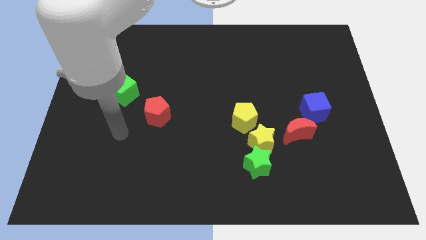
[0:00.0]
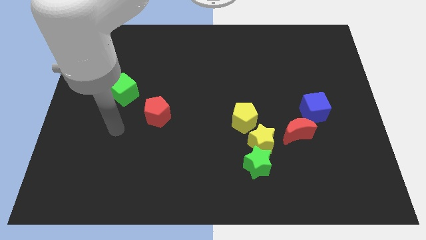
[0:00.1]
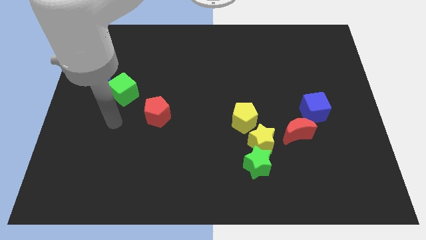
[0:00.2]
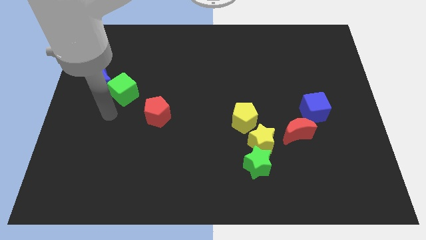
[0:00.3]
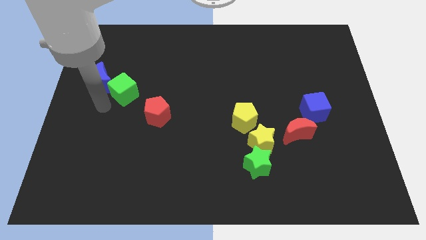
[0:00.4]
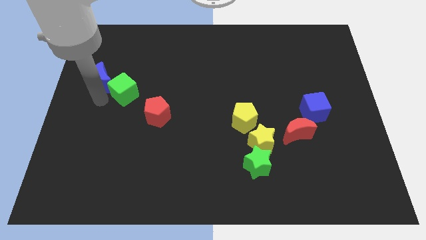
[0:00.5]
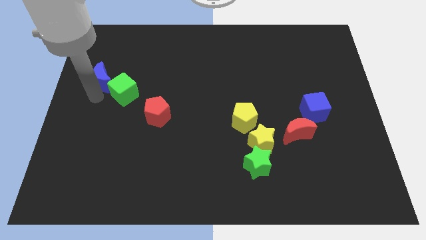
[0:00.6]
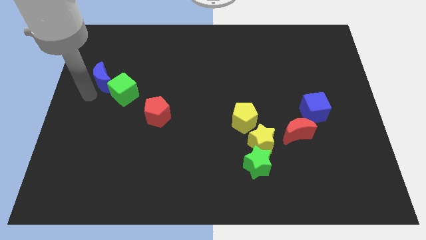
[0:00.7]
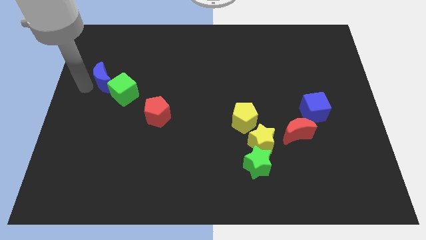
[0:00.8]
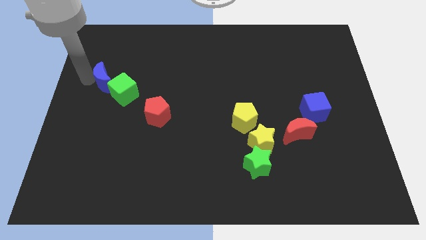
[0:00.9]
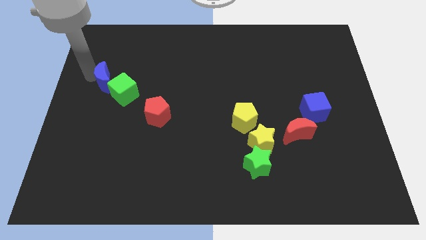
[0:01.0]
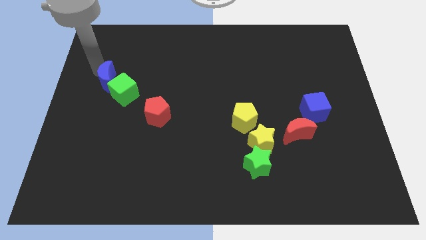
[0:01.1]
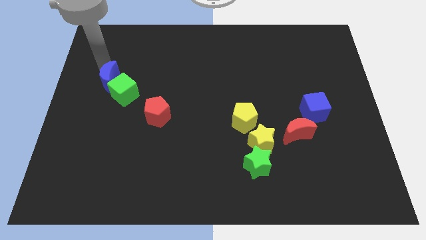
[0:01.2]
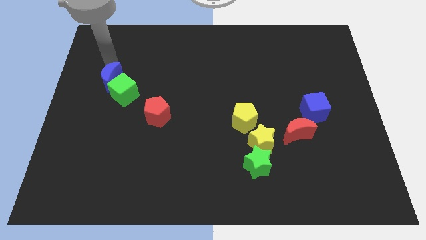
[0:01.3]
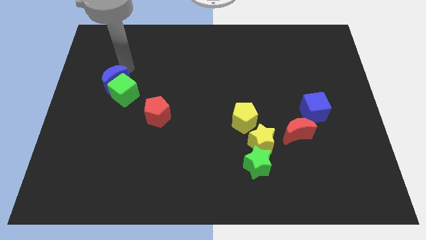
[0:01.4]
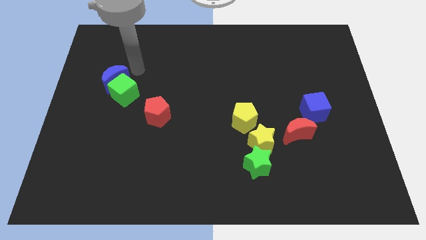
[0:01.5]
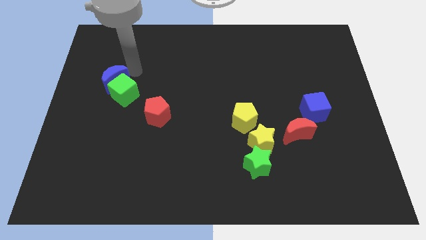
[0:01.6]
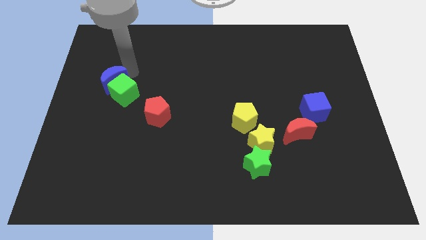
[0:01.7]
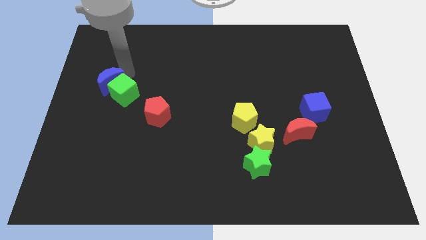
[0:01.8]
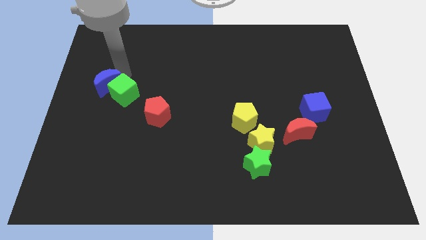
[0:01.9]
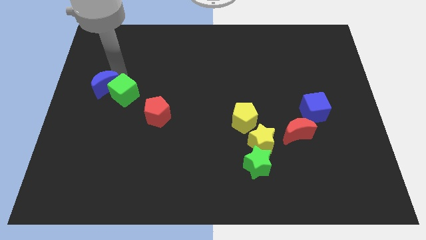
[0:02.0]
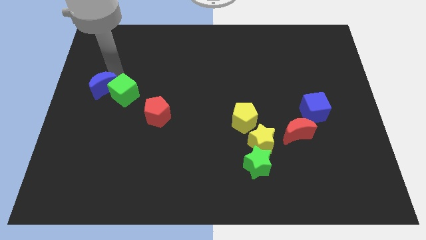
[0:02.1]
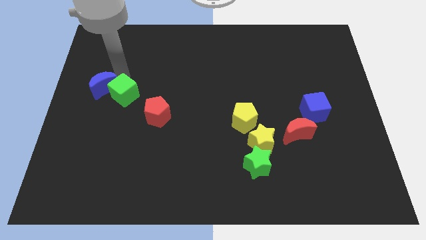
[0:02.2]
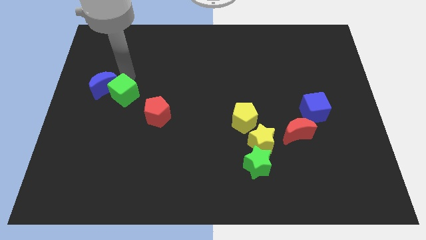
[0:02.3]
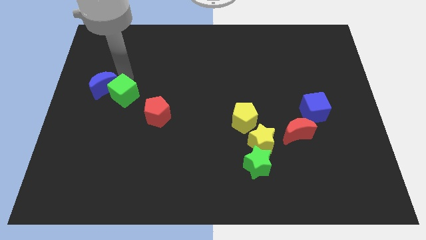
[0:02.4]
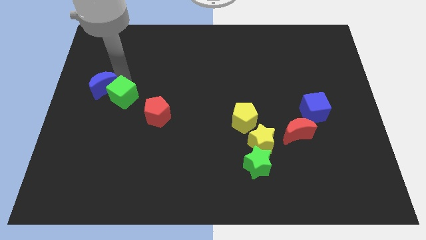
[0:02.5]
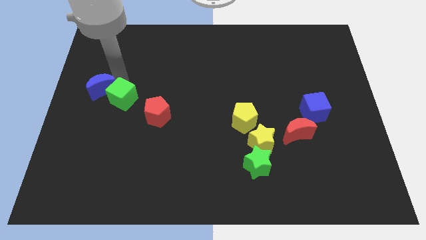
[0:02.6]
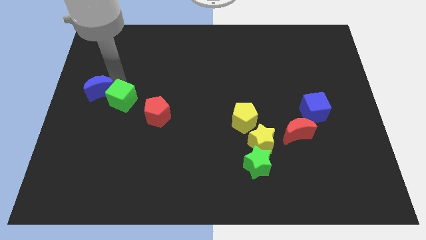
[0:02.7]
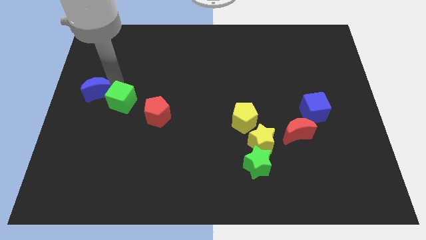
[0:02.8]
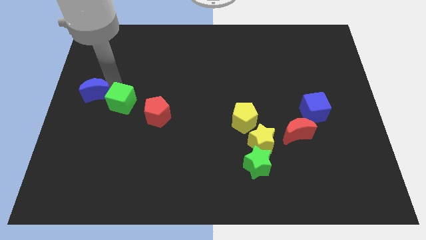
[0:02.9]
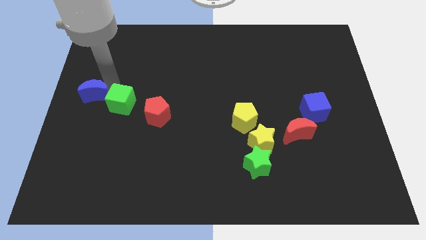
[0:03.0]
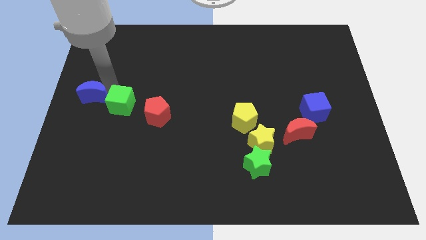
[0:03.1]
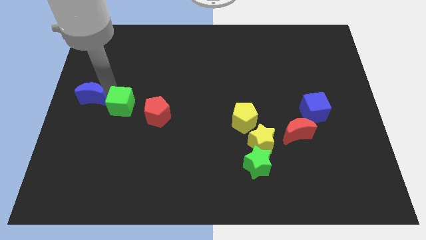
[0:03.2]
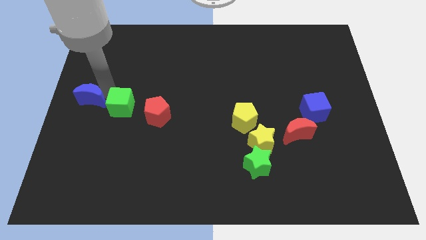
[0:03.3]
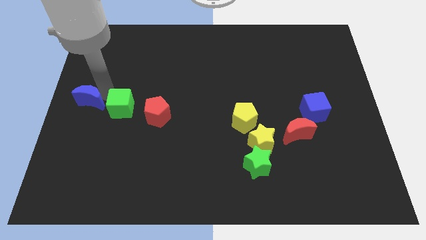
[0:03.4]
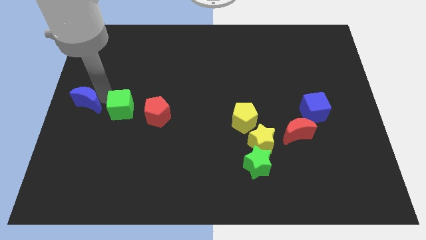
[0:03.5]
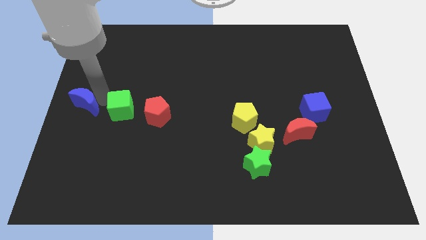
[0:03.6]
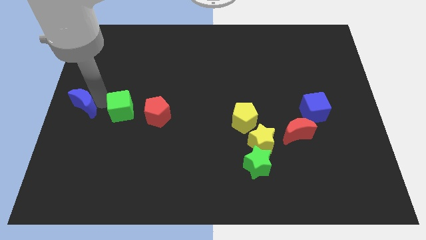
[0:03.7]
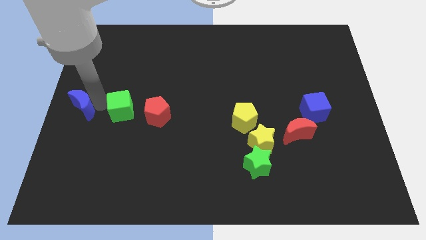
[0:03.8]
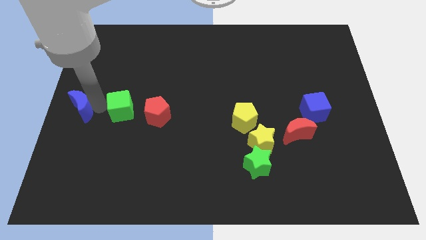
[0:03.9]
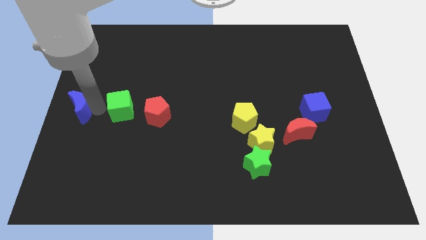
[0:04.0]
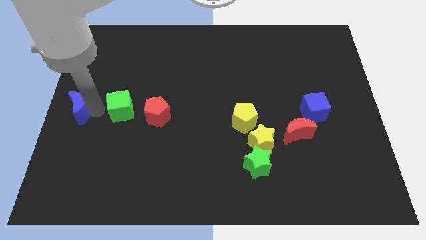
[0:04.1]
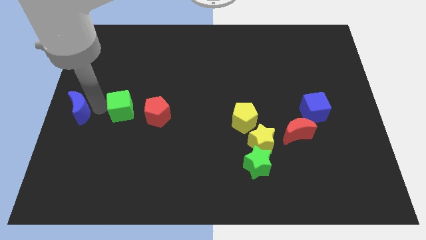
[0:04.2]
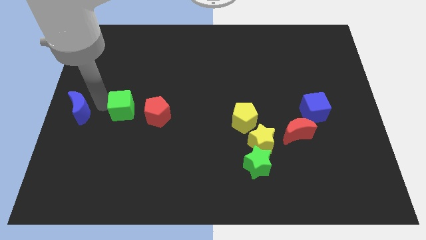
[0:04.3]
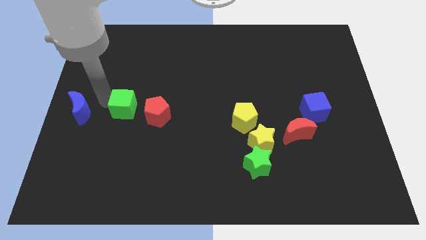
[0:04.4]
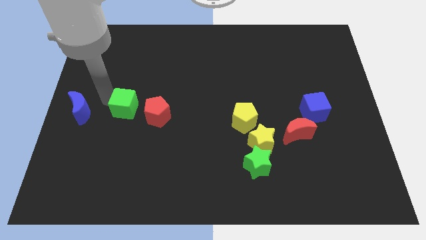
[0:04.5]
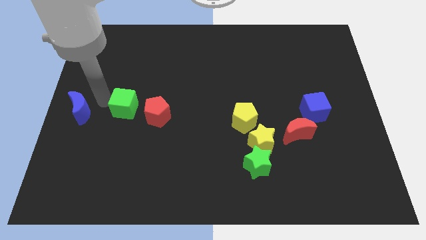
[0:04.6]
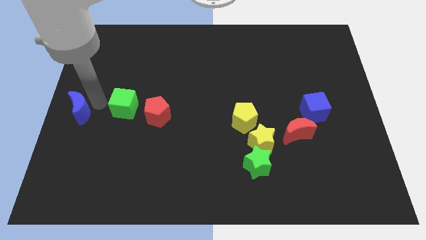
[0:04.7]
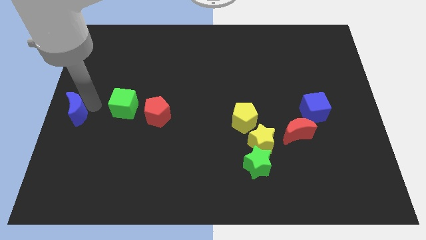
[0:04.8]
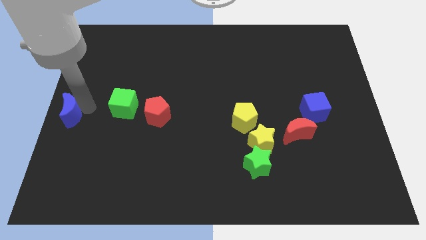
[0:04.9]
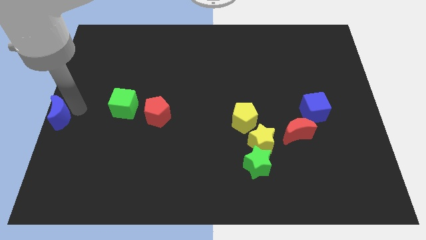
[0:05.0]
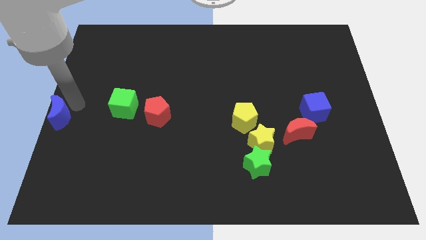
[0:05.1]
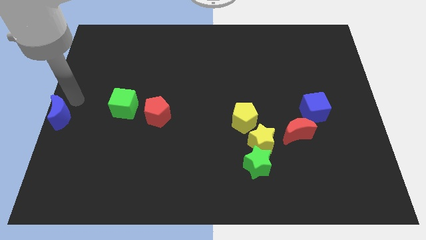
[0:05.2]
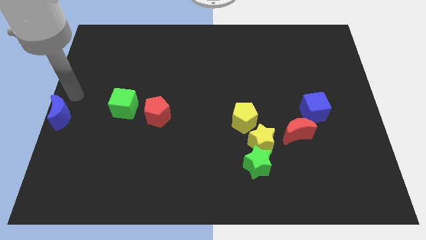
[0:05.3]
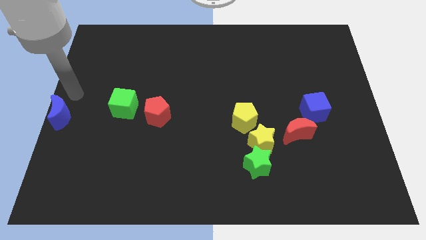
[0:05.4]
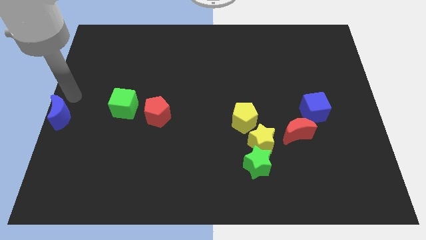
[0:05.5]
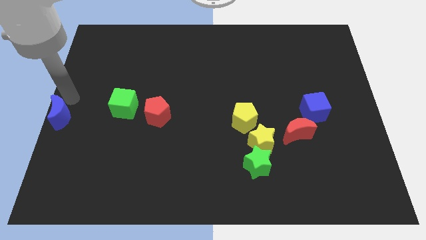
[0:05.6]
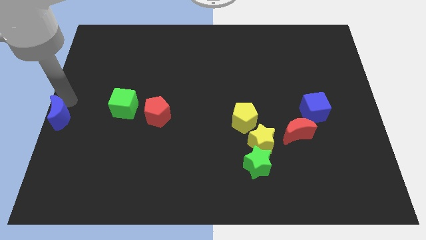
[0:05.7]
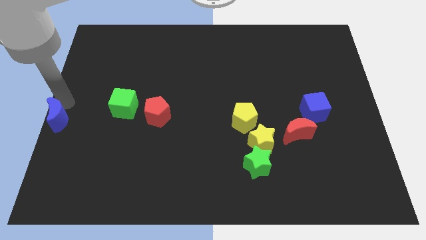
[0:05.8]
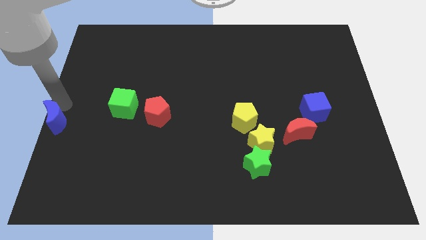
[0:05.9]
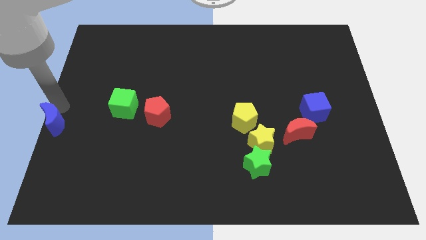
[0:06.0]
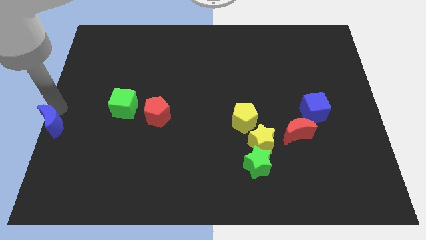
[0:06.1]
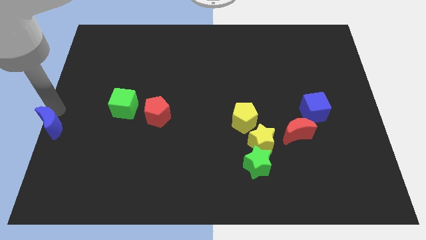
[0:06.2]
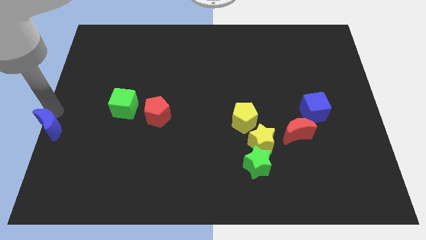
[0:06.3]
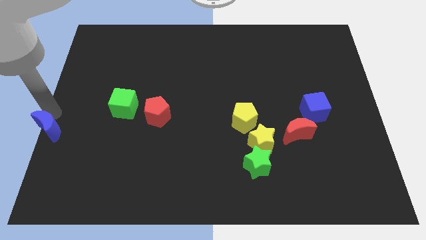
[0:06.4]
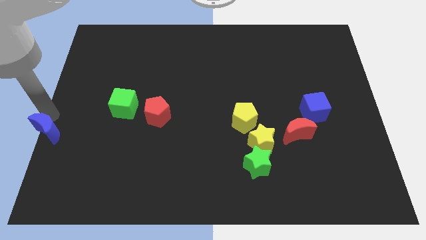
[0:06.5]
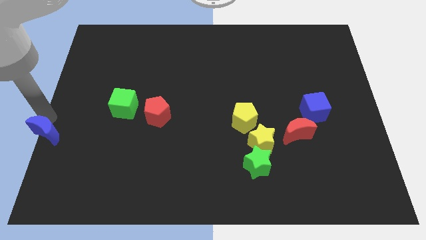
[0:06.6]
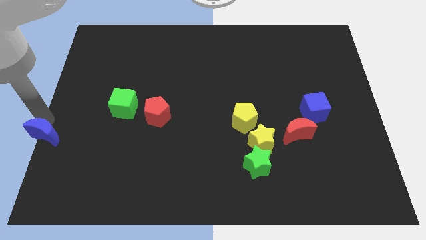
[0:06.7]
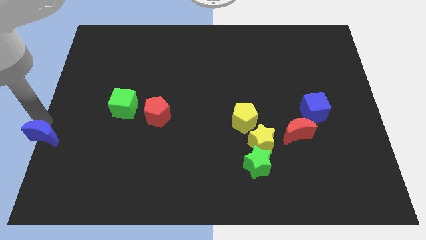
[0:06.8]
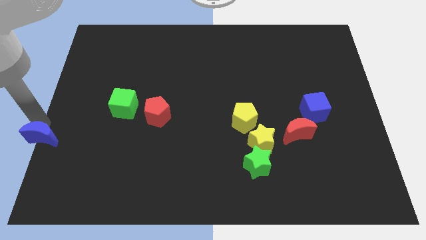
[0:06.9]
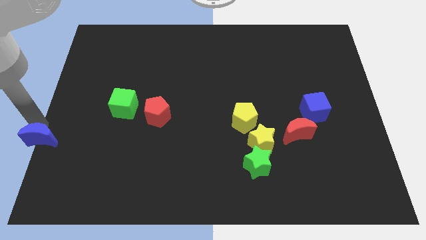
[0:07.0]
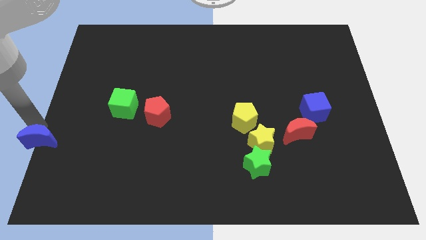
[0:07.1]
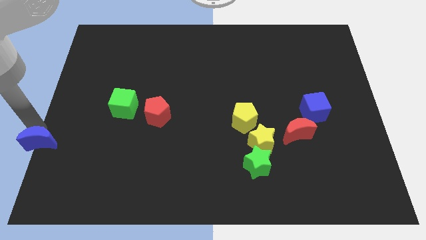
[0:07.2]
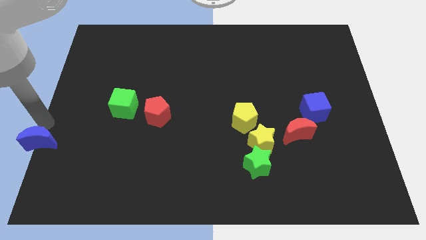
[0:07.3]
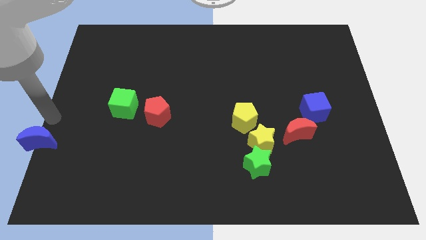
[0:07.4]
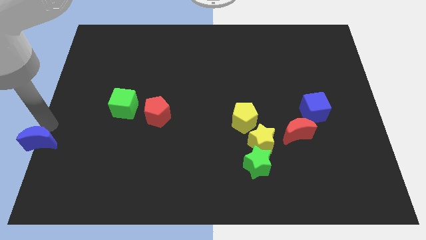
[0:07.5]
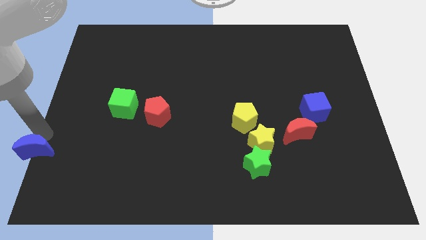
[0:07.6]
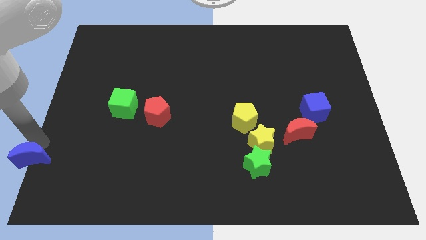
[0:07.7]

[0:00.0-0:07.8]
push the blue moon to the bottom left corner
